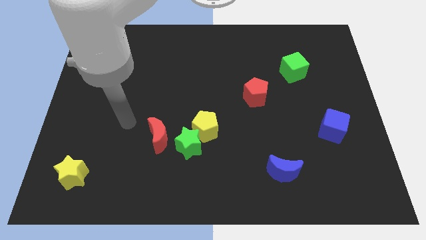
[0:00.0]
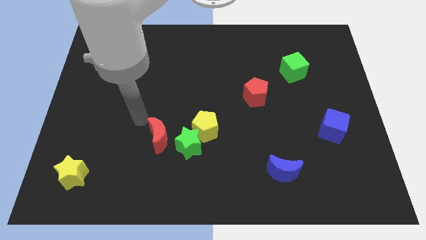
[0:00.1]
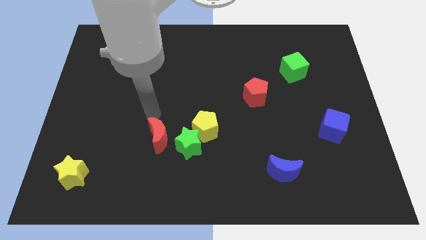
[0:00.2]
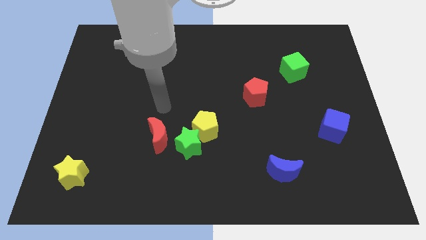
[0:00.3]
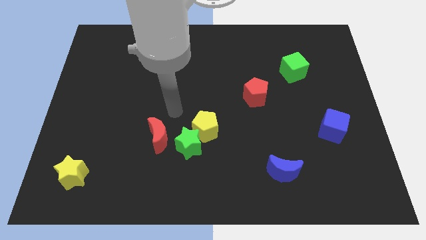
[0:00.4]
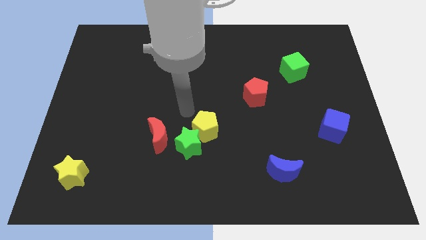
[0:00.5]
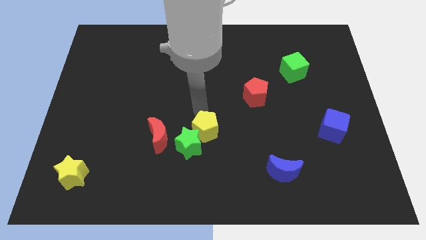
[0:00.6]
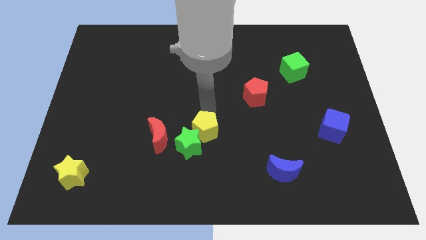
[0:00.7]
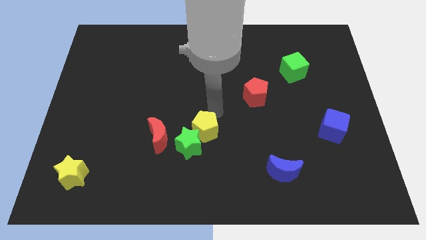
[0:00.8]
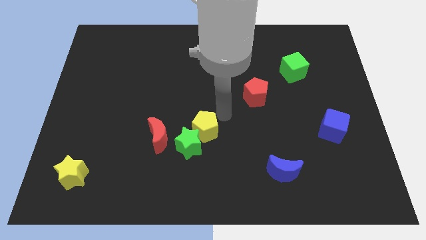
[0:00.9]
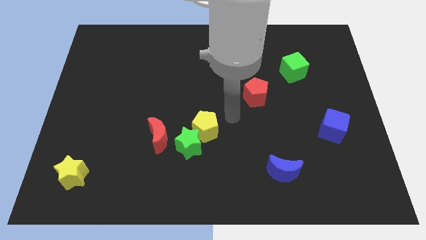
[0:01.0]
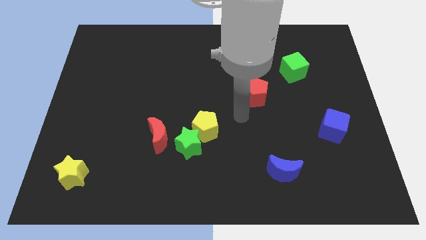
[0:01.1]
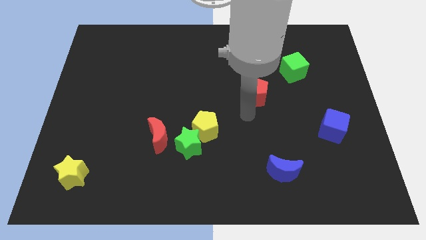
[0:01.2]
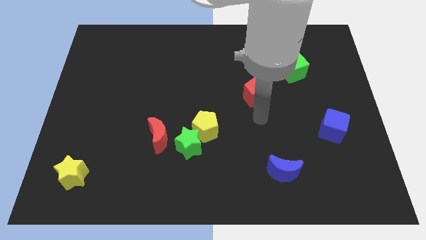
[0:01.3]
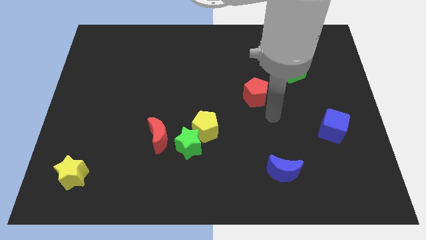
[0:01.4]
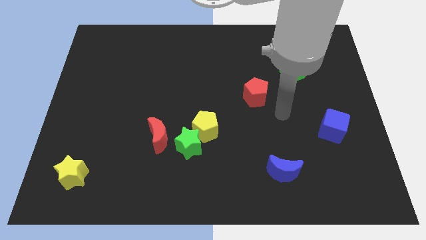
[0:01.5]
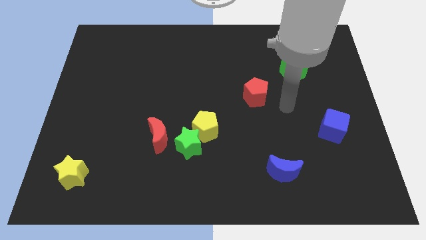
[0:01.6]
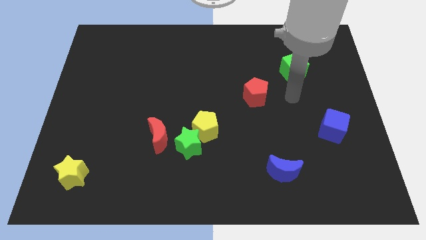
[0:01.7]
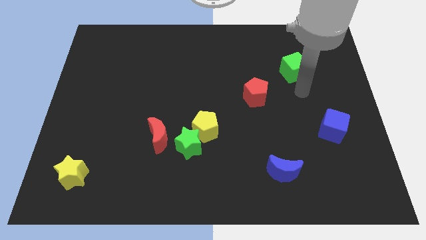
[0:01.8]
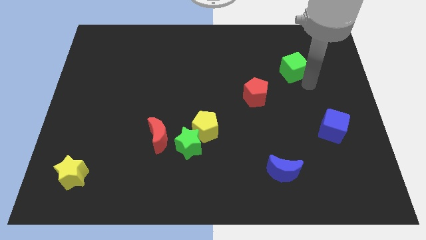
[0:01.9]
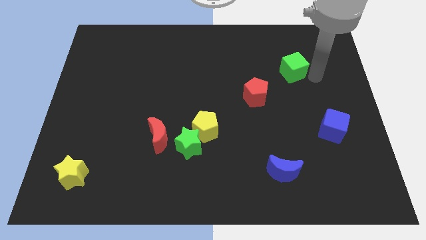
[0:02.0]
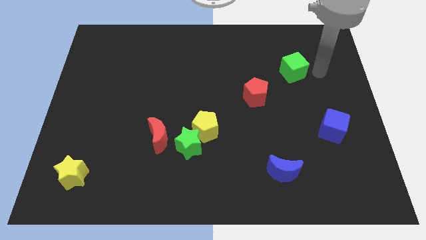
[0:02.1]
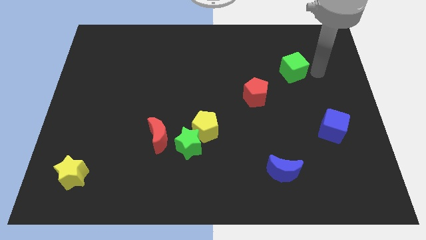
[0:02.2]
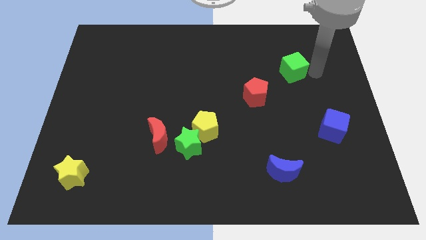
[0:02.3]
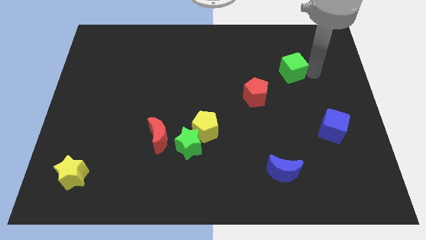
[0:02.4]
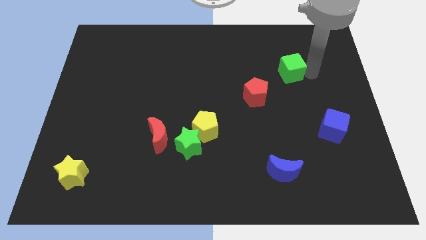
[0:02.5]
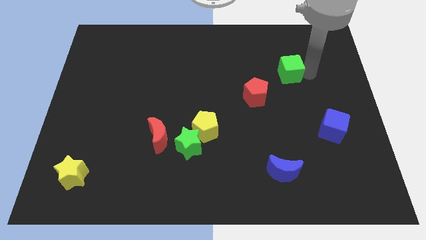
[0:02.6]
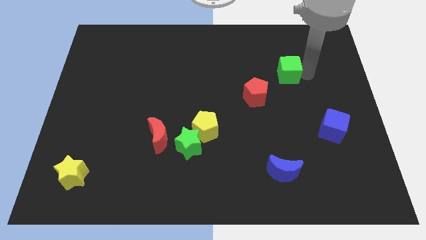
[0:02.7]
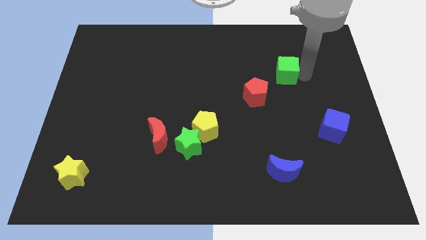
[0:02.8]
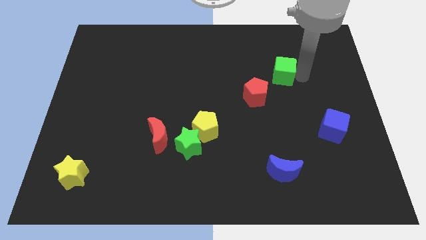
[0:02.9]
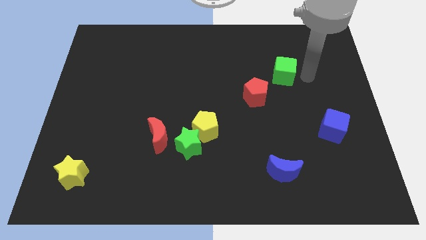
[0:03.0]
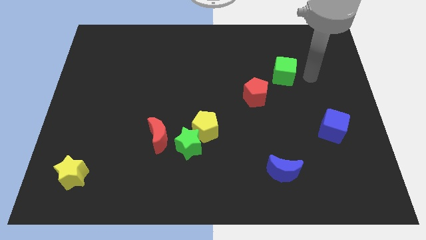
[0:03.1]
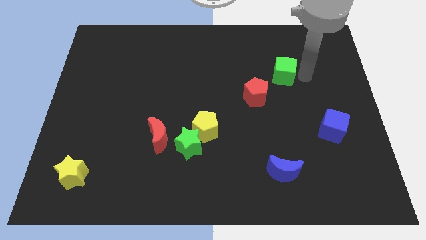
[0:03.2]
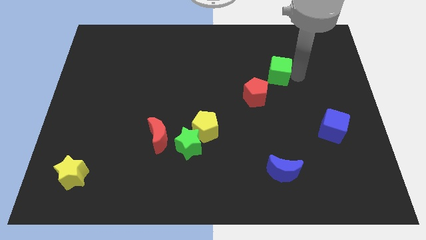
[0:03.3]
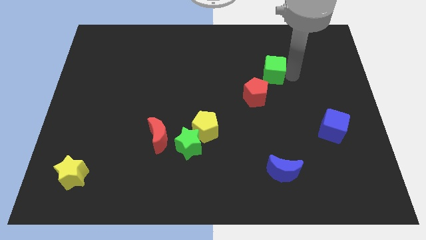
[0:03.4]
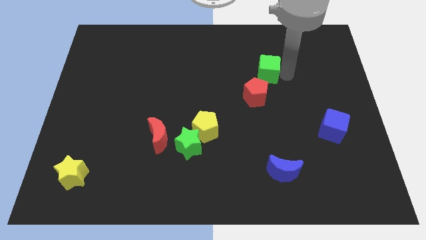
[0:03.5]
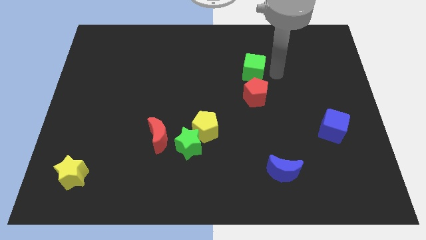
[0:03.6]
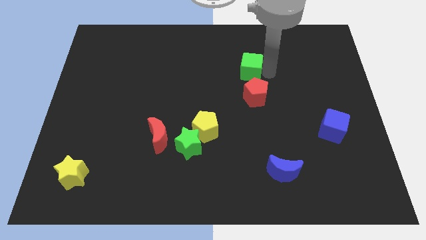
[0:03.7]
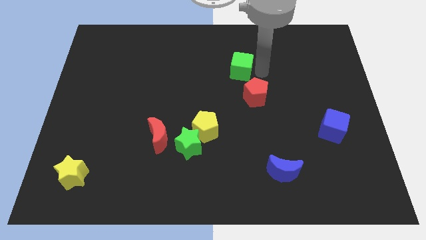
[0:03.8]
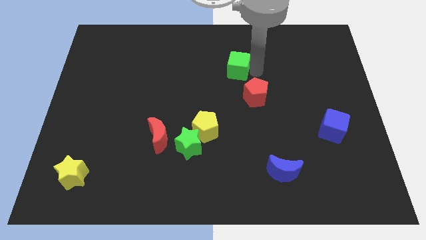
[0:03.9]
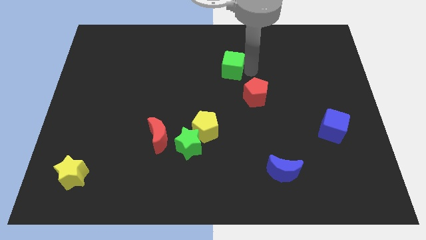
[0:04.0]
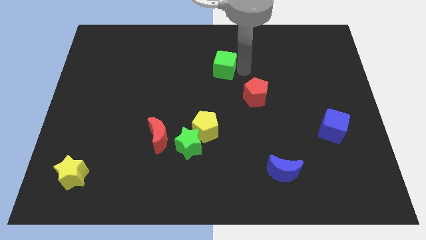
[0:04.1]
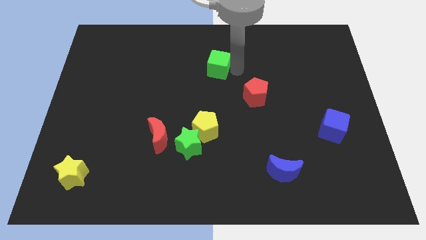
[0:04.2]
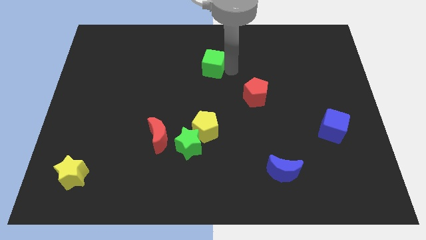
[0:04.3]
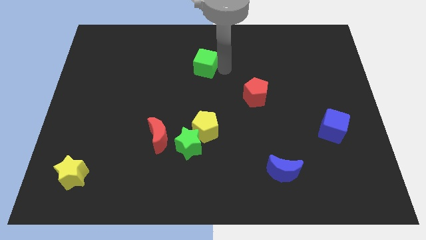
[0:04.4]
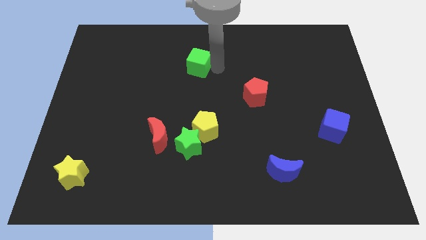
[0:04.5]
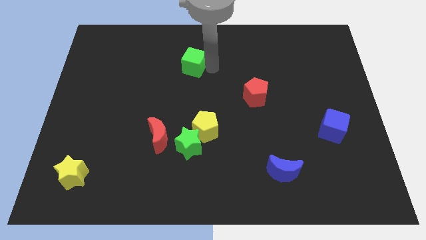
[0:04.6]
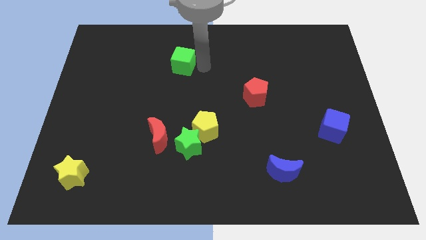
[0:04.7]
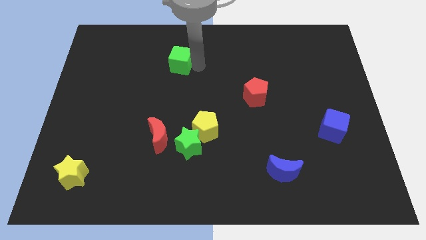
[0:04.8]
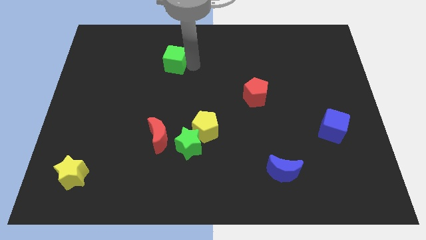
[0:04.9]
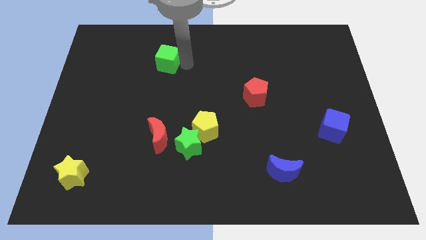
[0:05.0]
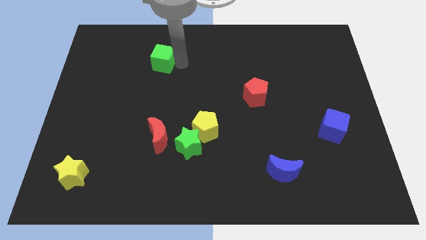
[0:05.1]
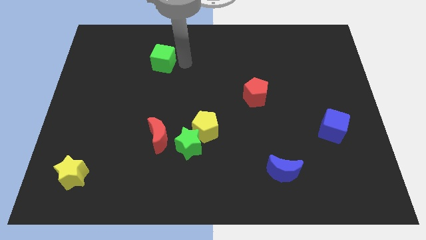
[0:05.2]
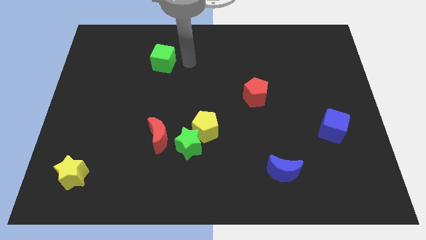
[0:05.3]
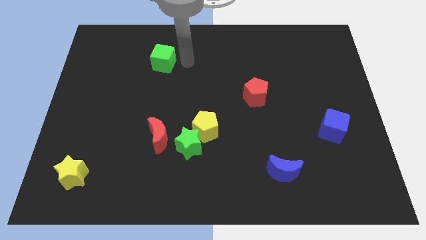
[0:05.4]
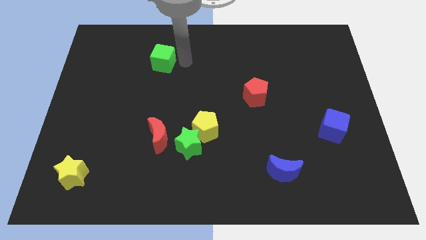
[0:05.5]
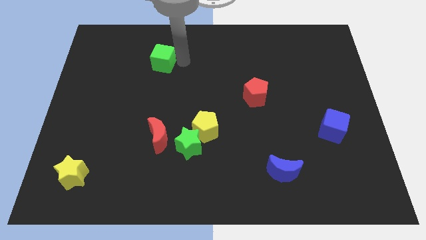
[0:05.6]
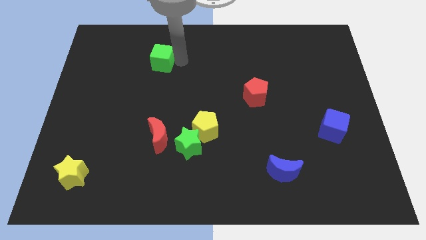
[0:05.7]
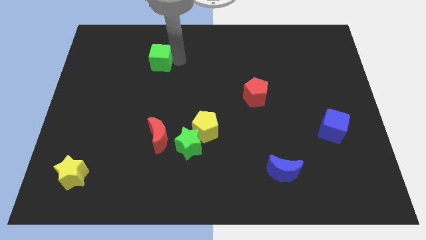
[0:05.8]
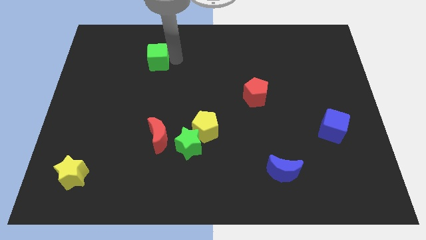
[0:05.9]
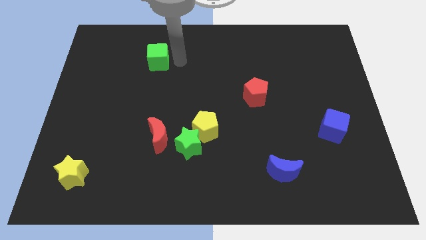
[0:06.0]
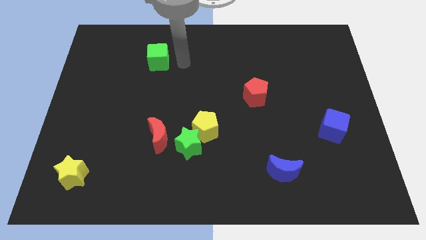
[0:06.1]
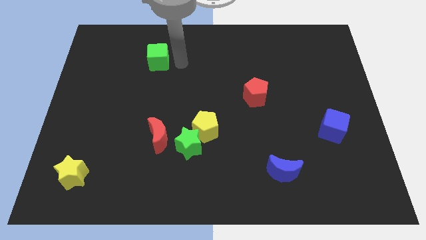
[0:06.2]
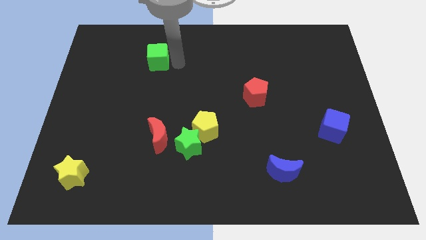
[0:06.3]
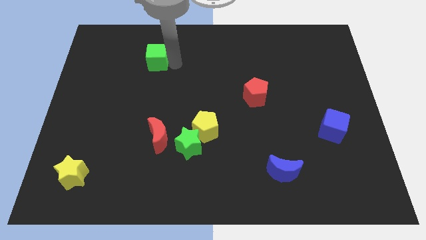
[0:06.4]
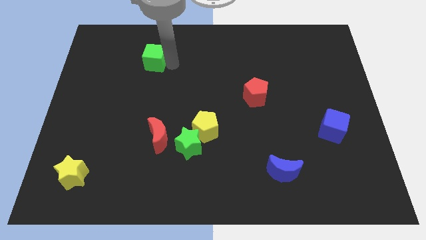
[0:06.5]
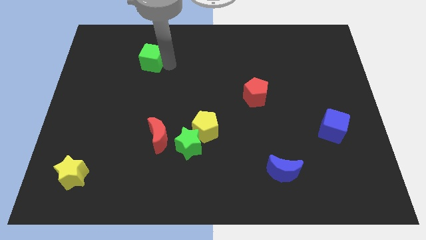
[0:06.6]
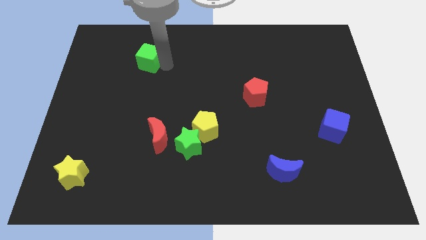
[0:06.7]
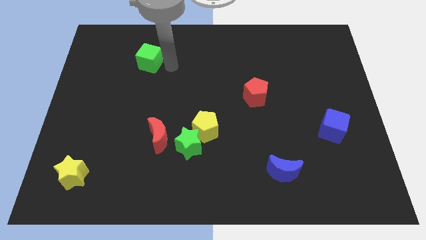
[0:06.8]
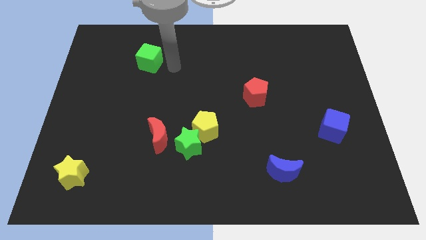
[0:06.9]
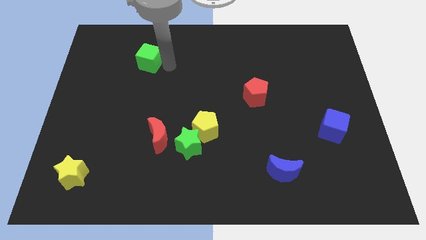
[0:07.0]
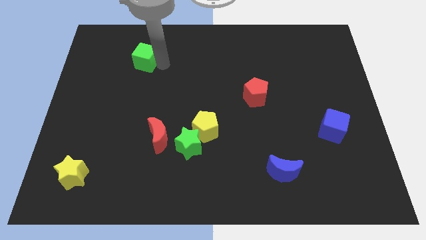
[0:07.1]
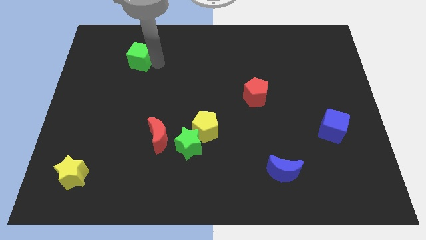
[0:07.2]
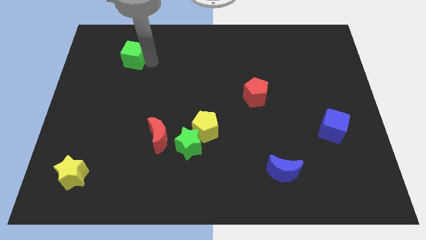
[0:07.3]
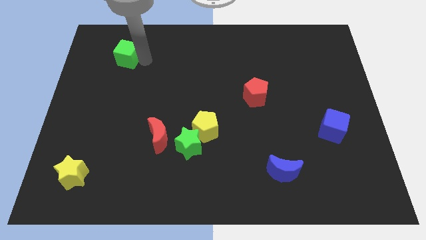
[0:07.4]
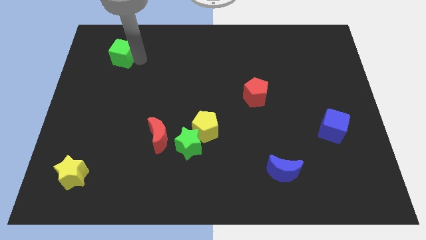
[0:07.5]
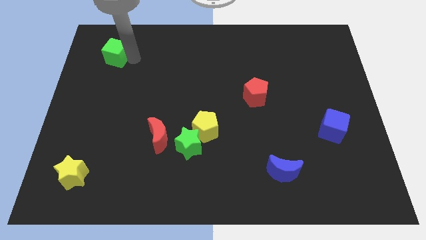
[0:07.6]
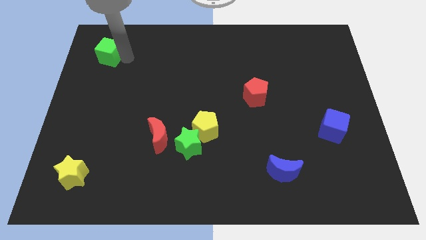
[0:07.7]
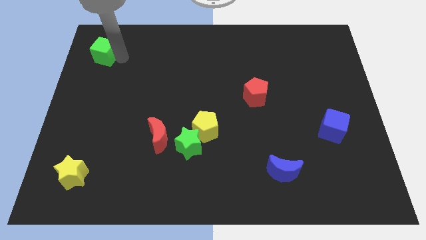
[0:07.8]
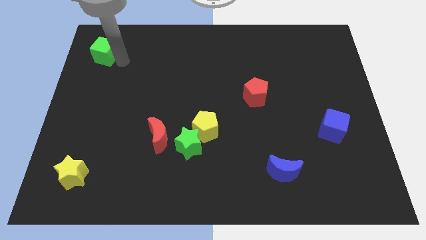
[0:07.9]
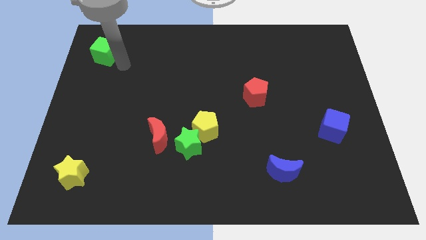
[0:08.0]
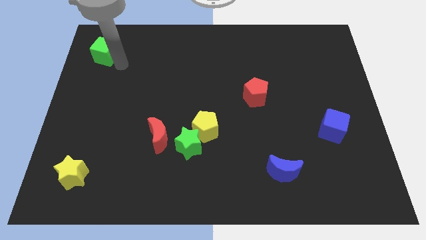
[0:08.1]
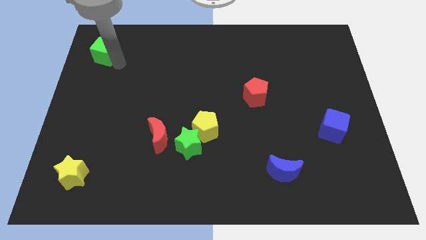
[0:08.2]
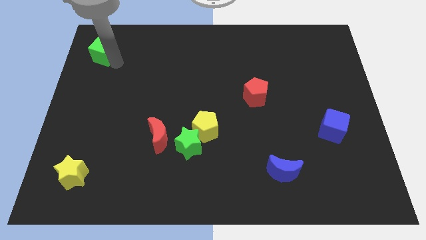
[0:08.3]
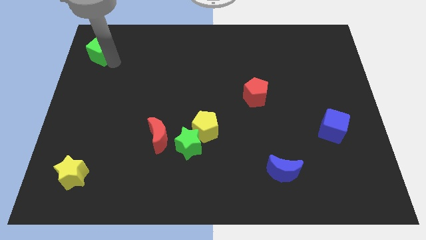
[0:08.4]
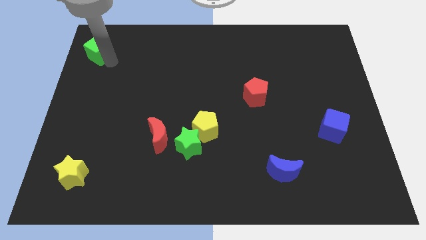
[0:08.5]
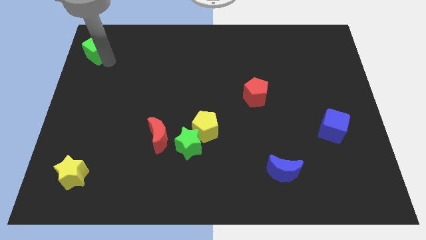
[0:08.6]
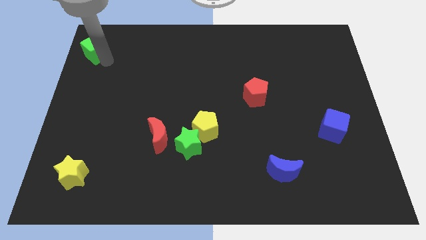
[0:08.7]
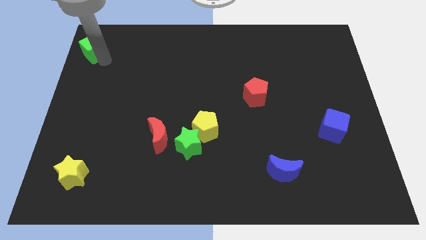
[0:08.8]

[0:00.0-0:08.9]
move the green cube to the top left of the board
